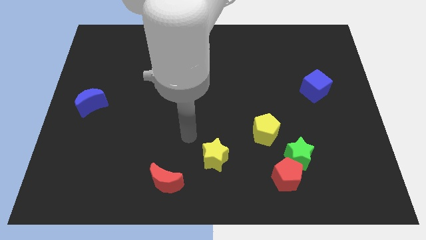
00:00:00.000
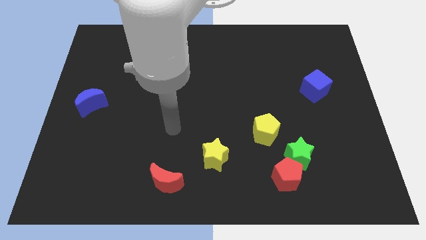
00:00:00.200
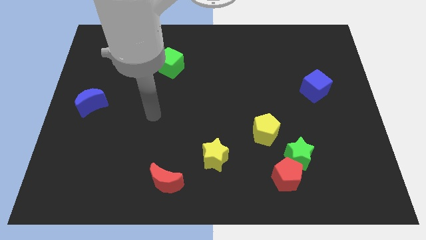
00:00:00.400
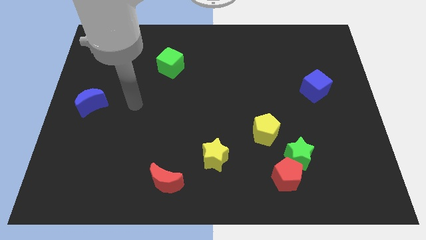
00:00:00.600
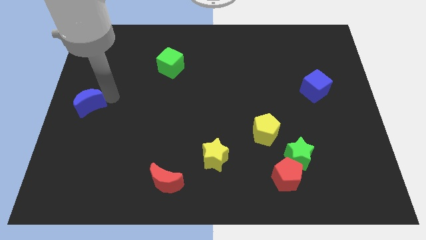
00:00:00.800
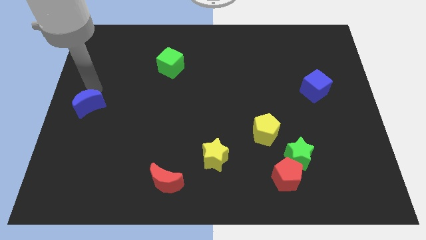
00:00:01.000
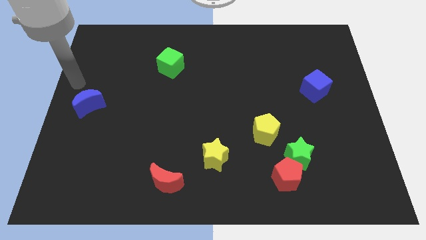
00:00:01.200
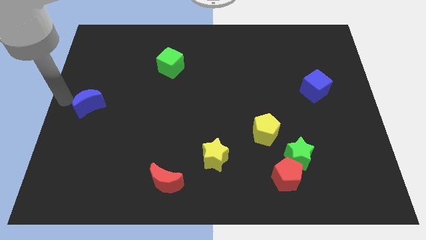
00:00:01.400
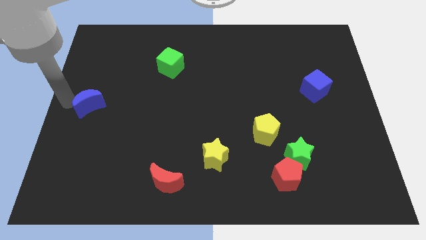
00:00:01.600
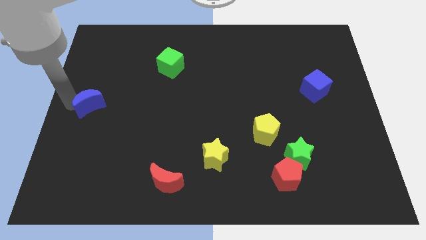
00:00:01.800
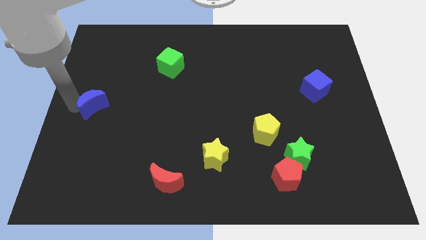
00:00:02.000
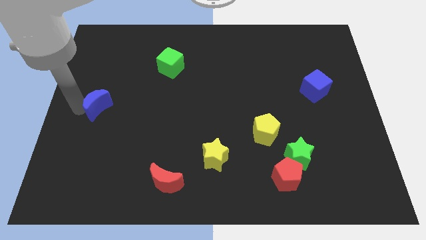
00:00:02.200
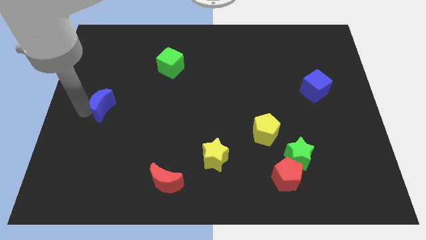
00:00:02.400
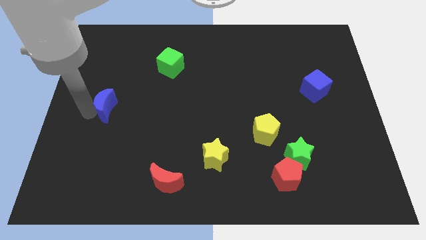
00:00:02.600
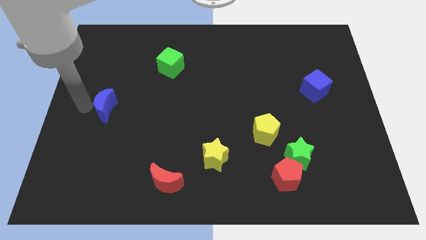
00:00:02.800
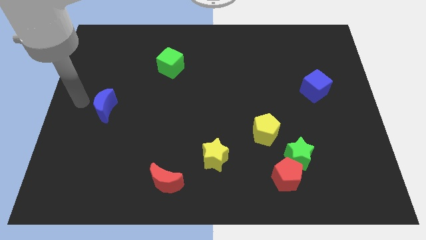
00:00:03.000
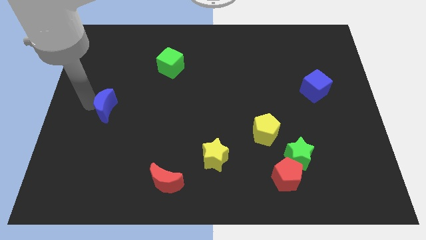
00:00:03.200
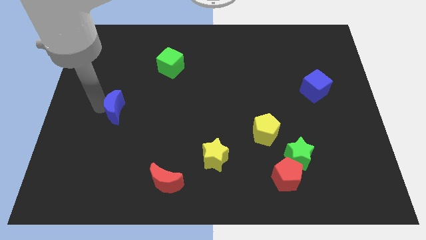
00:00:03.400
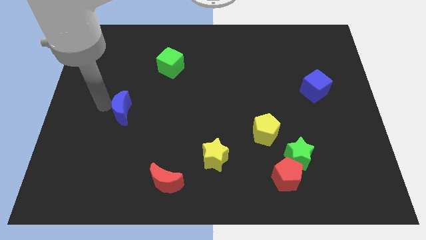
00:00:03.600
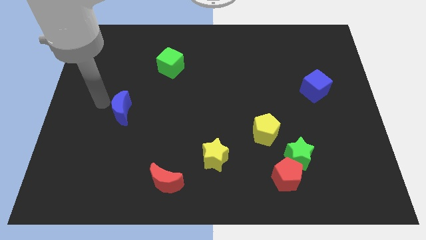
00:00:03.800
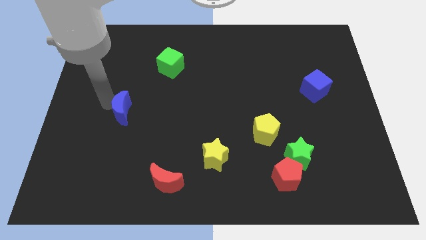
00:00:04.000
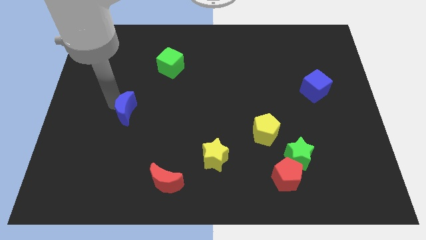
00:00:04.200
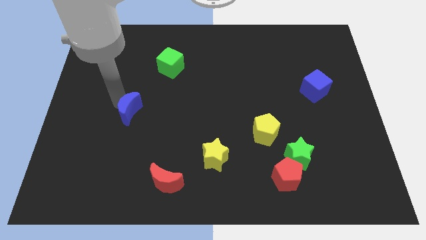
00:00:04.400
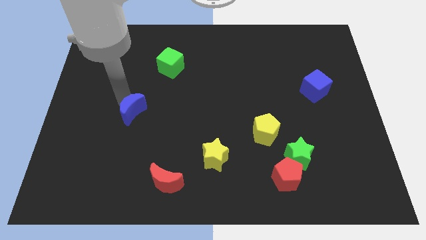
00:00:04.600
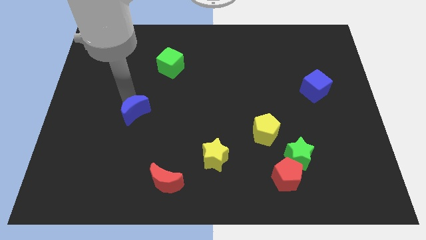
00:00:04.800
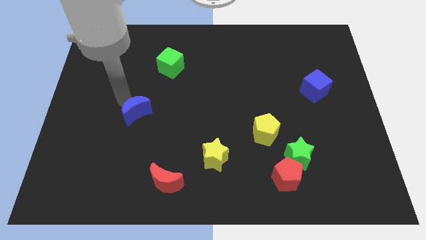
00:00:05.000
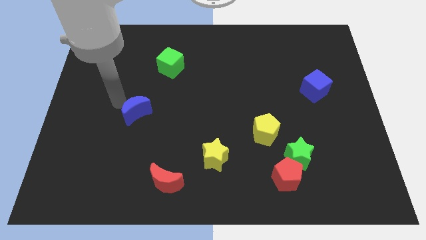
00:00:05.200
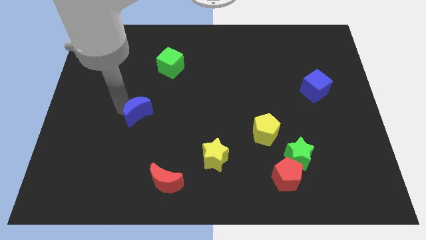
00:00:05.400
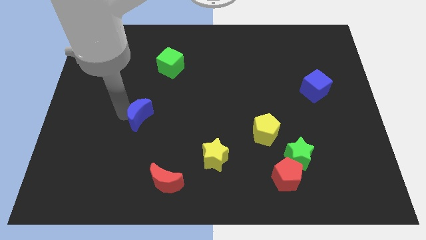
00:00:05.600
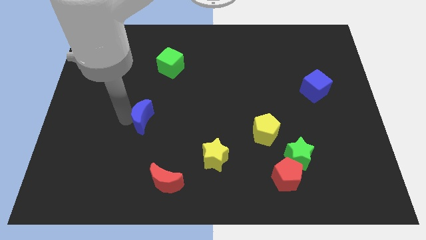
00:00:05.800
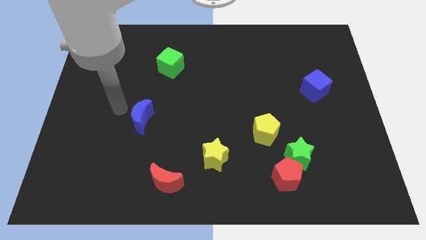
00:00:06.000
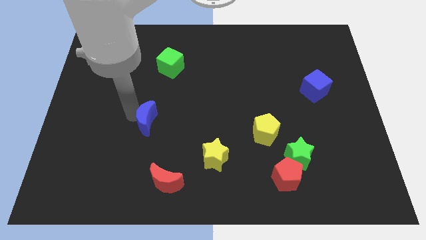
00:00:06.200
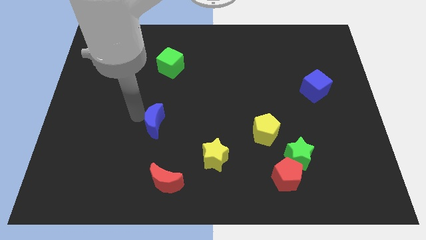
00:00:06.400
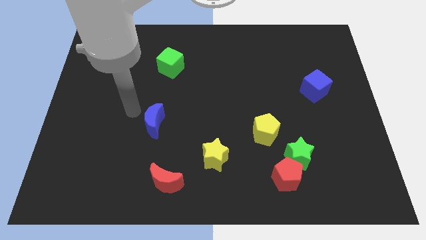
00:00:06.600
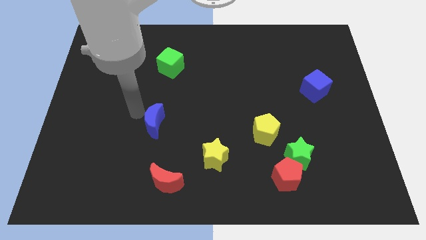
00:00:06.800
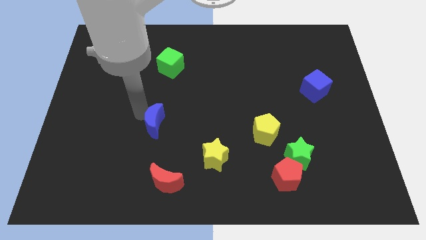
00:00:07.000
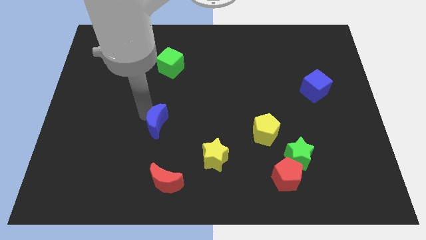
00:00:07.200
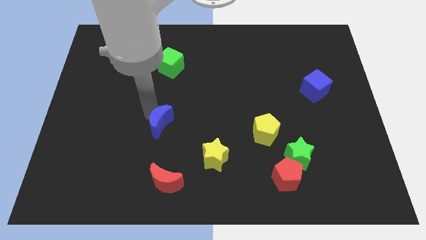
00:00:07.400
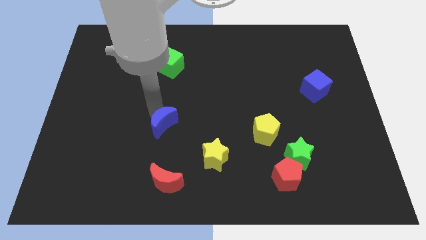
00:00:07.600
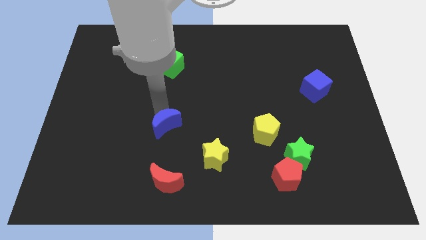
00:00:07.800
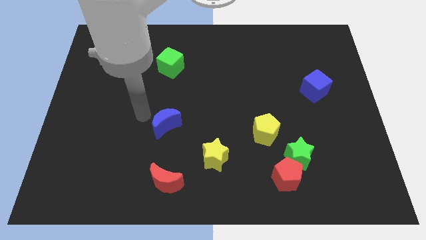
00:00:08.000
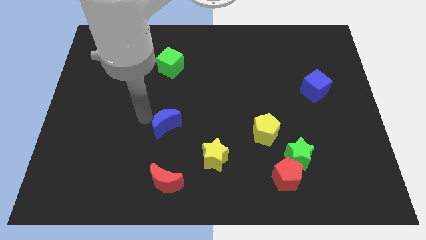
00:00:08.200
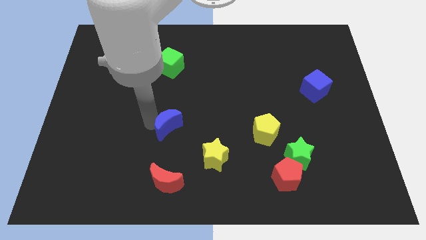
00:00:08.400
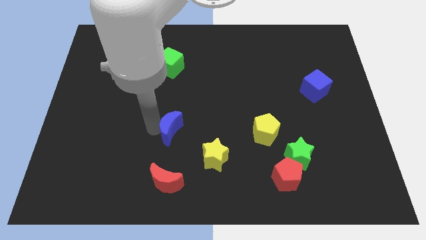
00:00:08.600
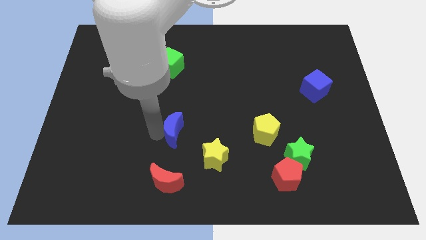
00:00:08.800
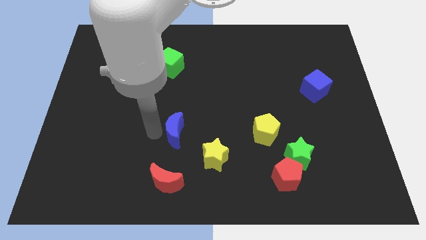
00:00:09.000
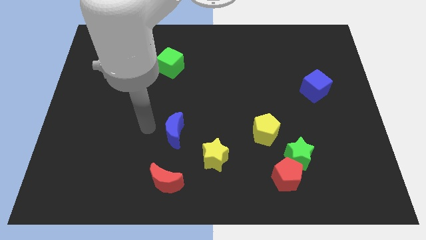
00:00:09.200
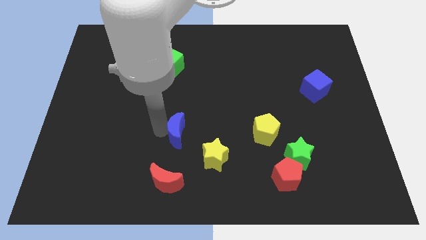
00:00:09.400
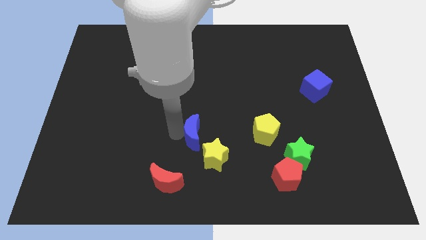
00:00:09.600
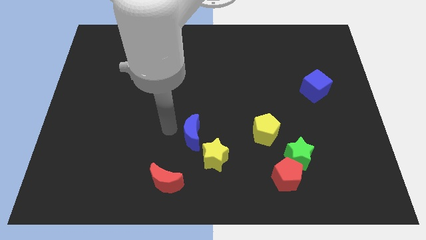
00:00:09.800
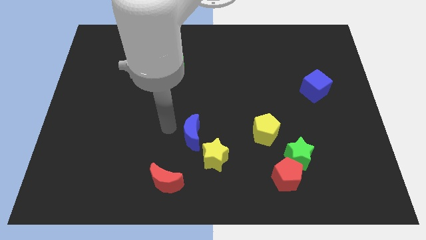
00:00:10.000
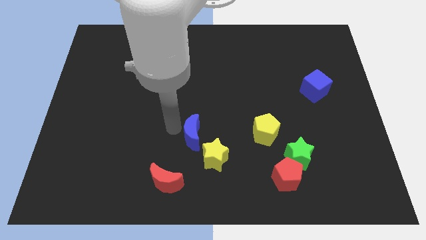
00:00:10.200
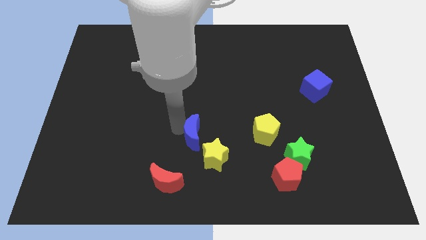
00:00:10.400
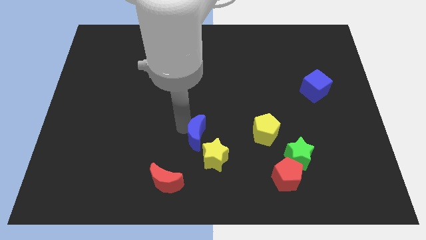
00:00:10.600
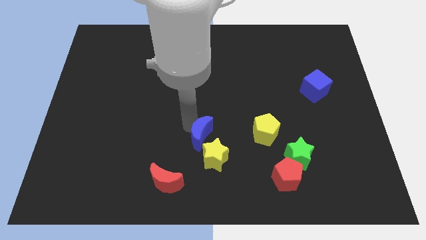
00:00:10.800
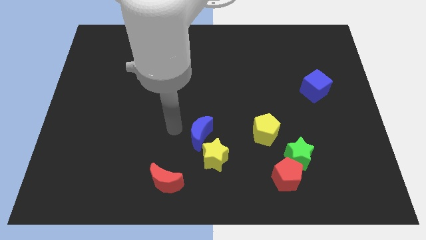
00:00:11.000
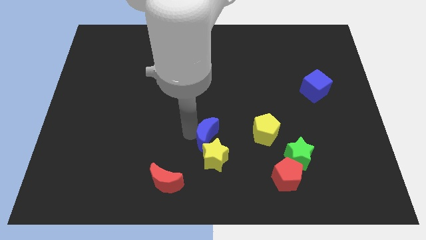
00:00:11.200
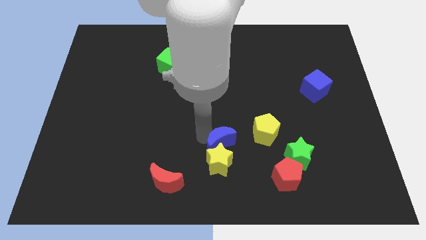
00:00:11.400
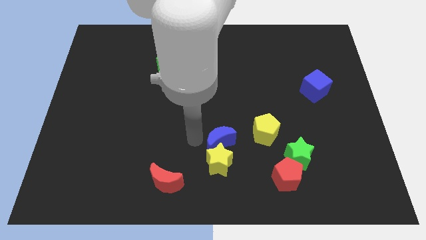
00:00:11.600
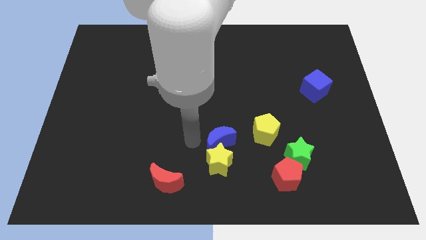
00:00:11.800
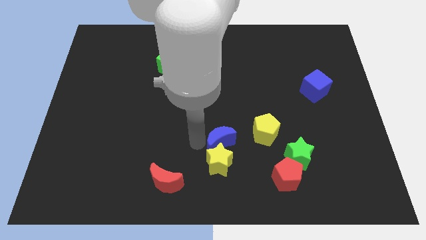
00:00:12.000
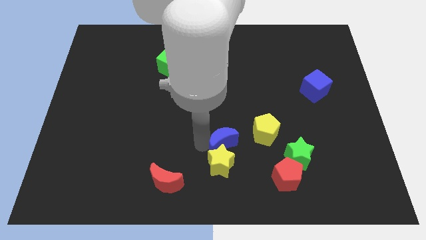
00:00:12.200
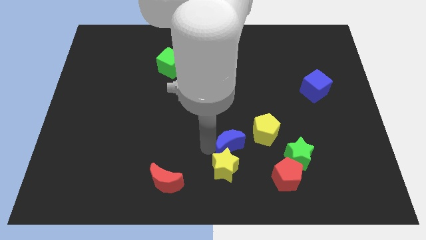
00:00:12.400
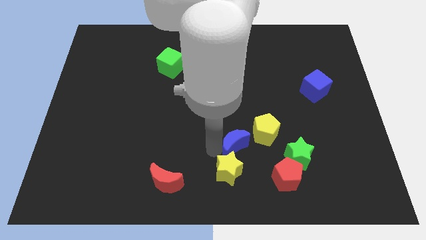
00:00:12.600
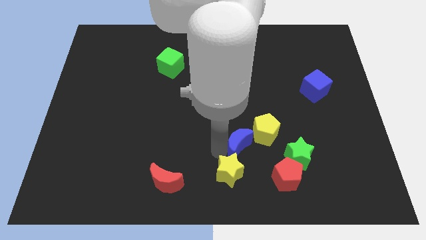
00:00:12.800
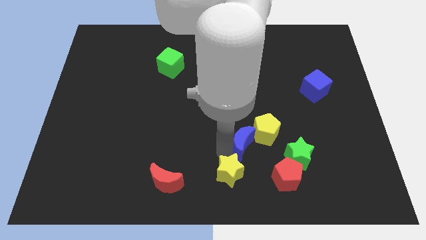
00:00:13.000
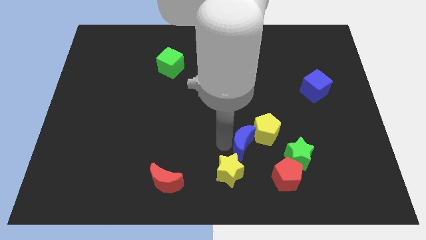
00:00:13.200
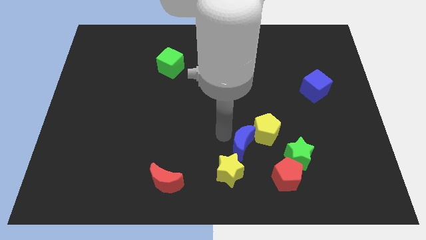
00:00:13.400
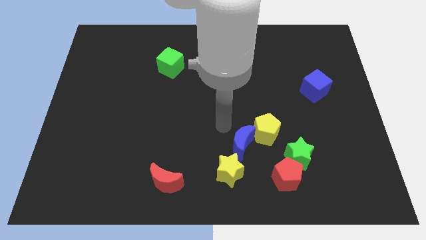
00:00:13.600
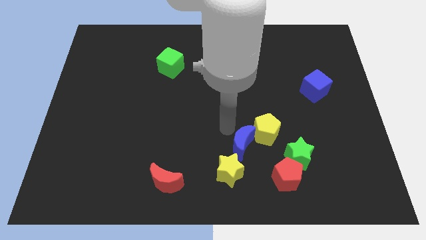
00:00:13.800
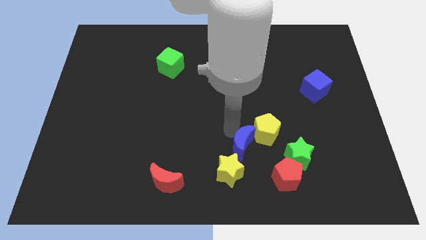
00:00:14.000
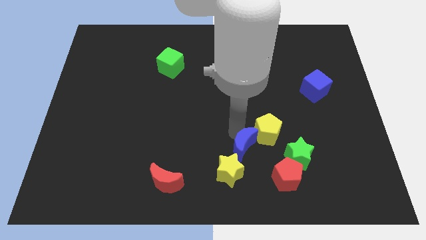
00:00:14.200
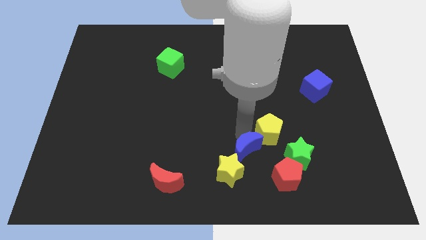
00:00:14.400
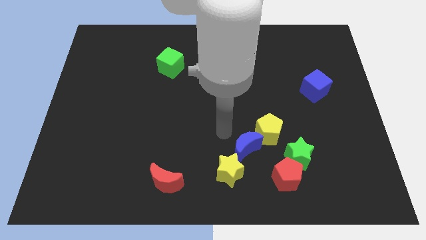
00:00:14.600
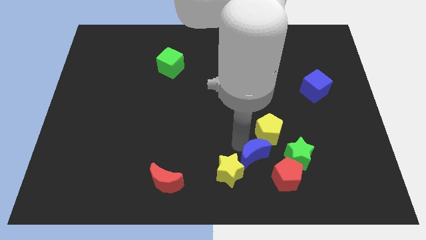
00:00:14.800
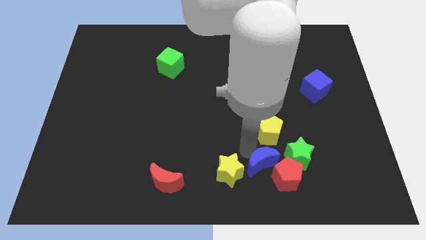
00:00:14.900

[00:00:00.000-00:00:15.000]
slide the blue moon towards the red pentagon

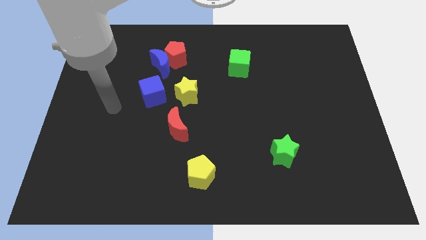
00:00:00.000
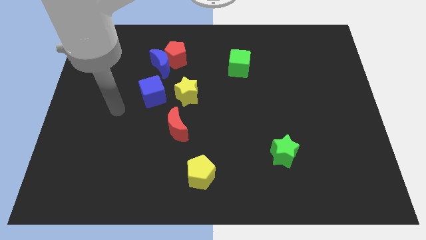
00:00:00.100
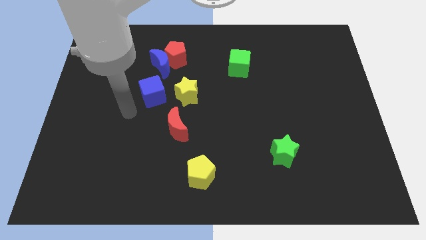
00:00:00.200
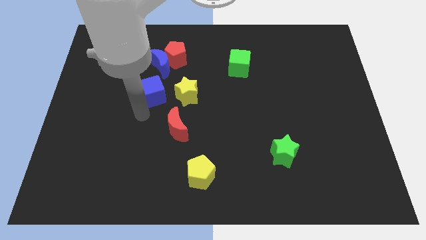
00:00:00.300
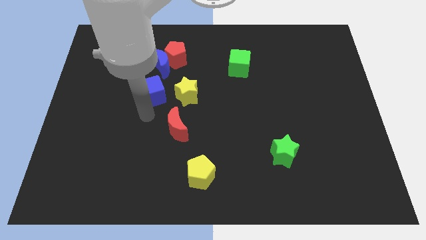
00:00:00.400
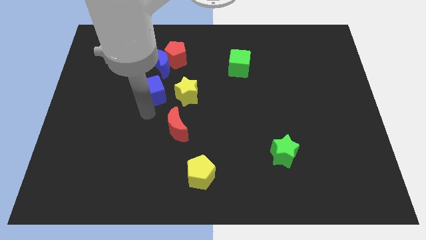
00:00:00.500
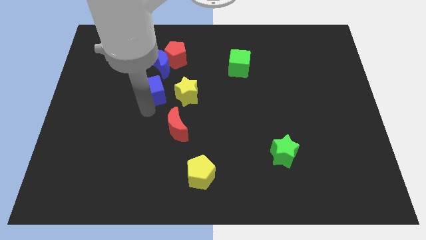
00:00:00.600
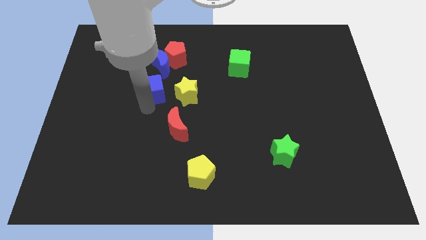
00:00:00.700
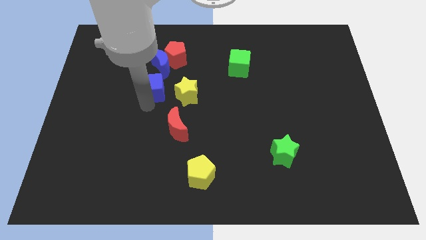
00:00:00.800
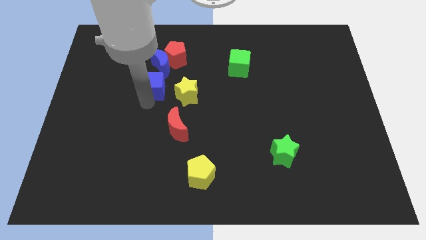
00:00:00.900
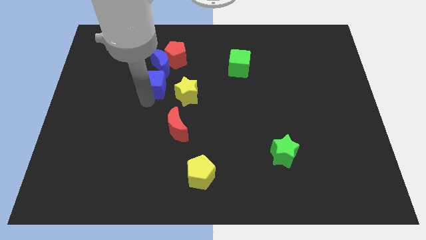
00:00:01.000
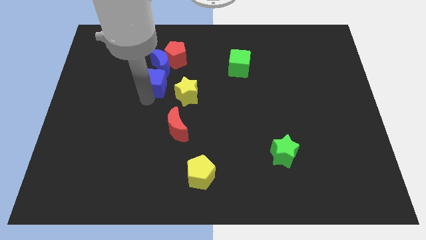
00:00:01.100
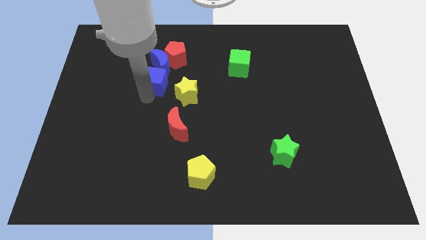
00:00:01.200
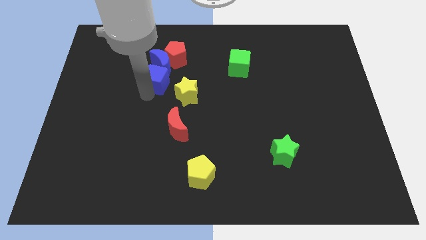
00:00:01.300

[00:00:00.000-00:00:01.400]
move the blue cube towards the blue moon
